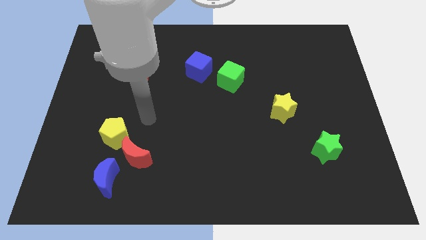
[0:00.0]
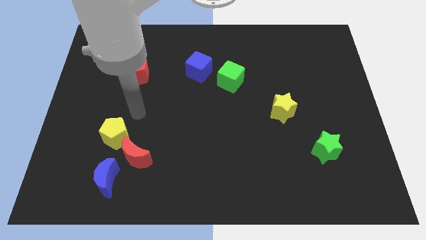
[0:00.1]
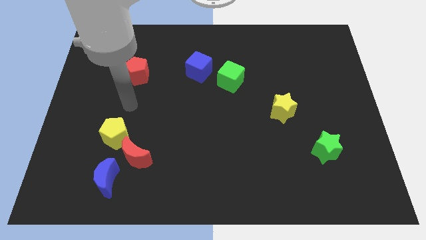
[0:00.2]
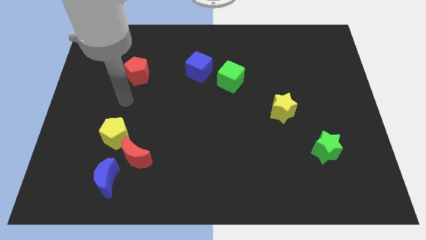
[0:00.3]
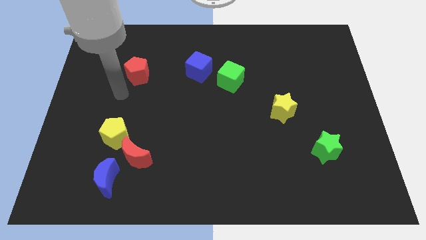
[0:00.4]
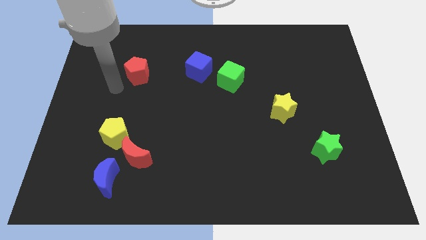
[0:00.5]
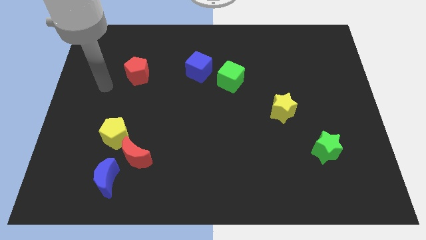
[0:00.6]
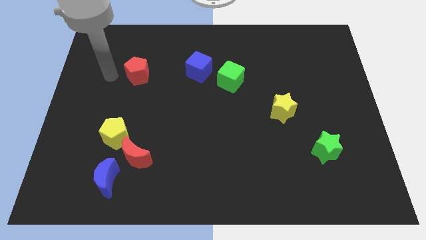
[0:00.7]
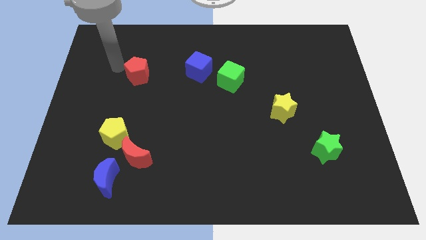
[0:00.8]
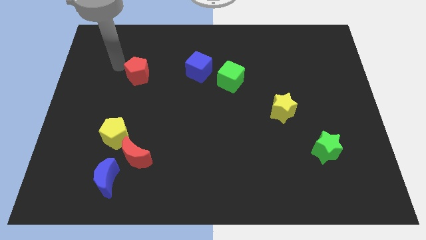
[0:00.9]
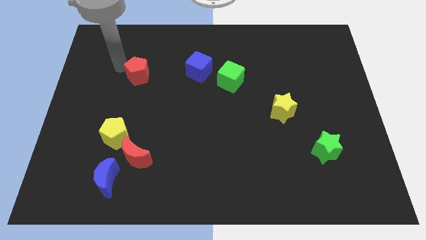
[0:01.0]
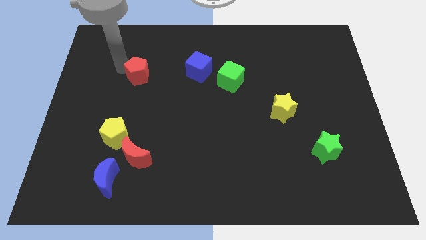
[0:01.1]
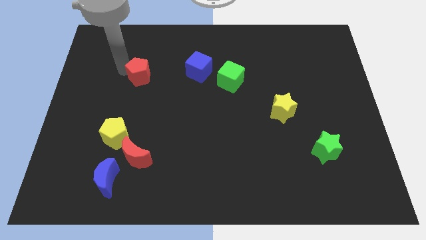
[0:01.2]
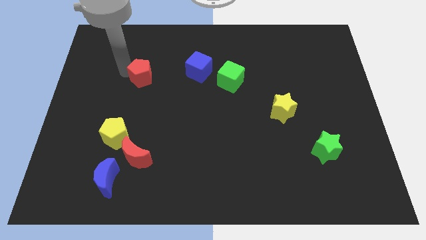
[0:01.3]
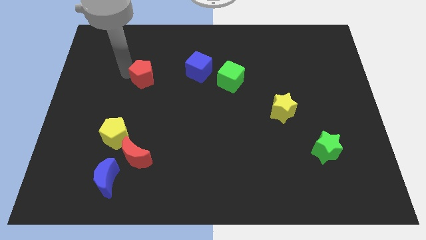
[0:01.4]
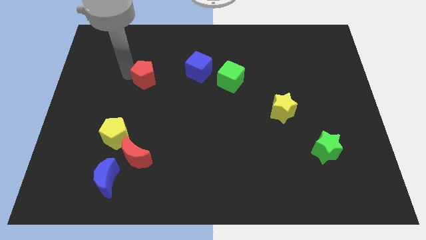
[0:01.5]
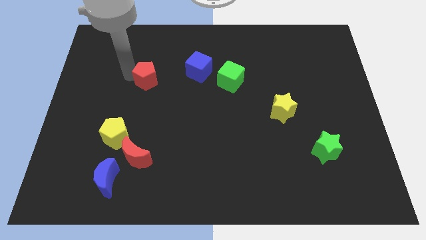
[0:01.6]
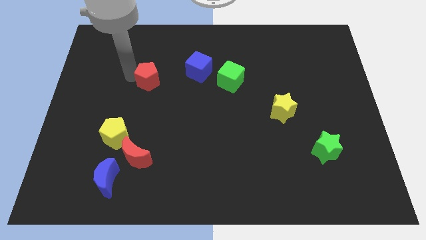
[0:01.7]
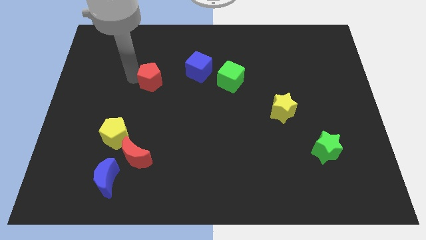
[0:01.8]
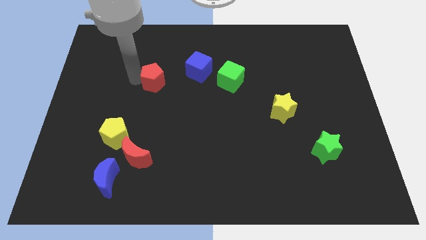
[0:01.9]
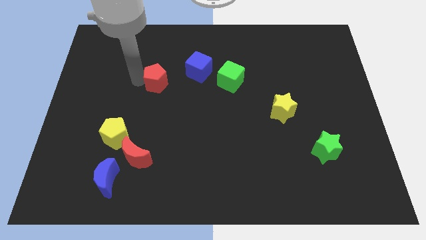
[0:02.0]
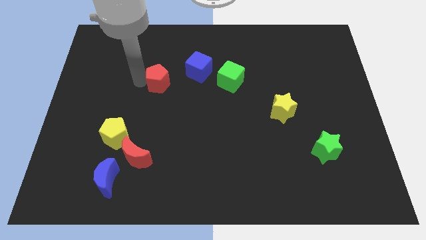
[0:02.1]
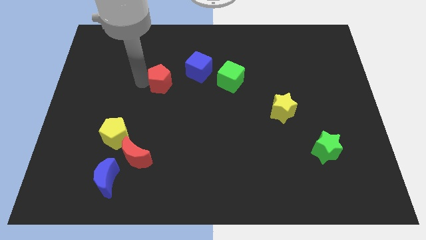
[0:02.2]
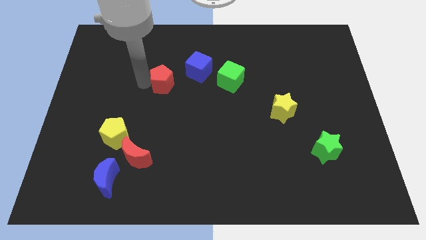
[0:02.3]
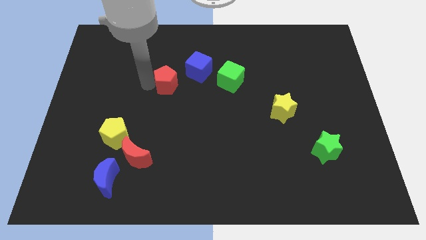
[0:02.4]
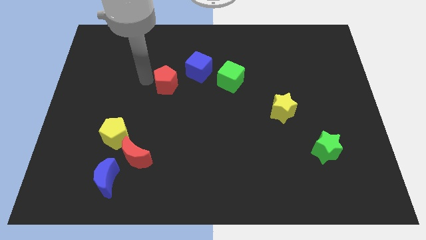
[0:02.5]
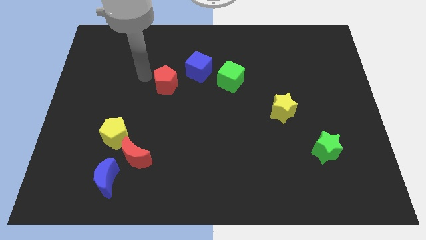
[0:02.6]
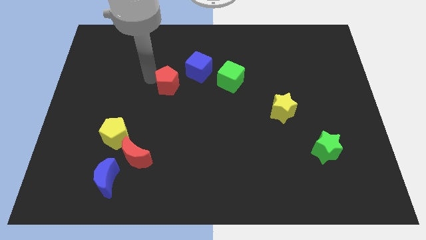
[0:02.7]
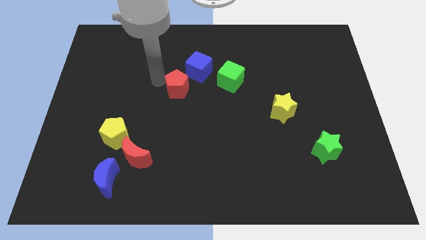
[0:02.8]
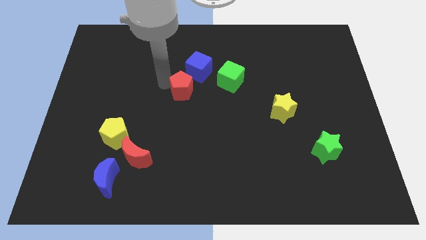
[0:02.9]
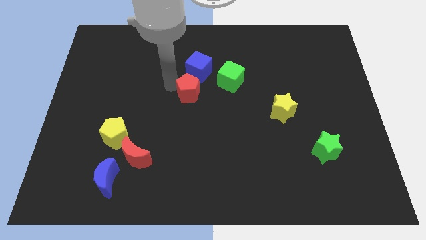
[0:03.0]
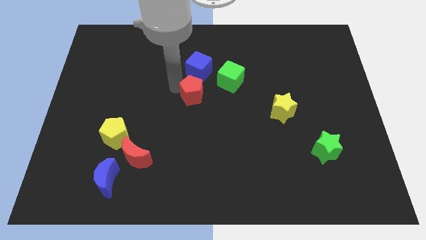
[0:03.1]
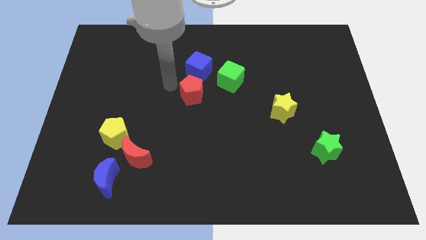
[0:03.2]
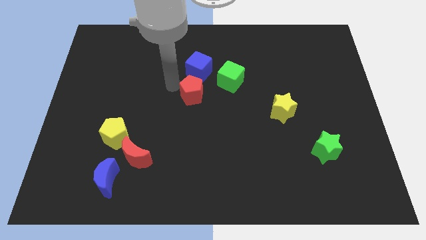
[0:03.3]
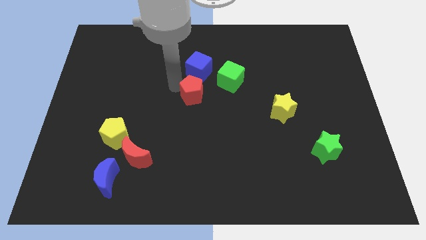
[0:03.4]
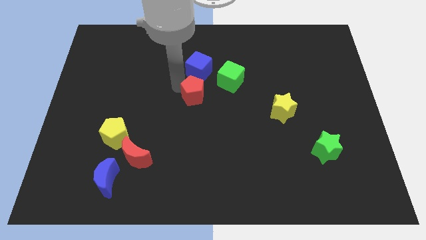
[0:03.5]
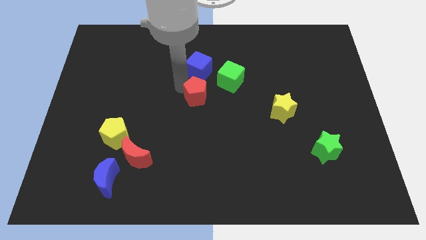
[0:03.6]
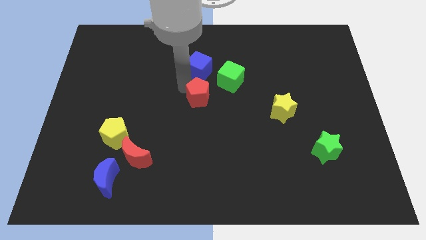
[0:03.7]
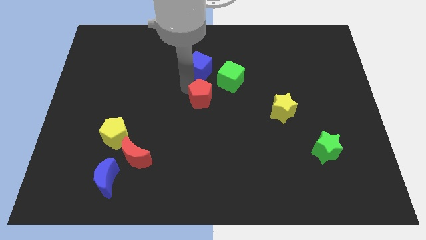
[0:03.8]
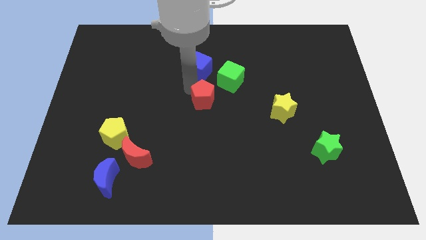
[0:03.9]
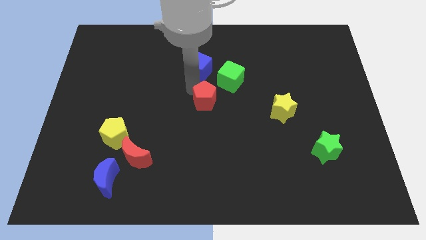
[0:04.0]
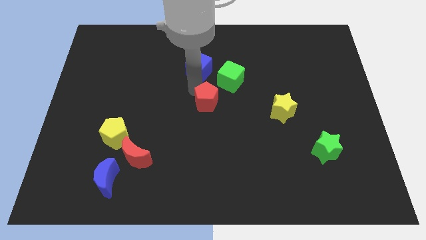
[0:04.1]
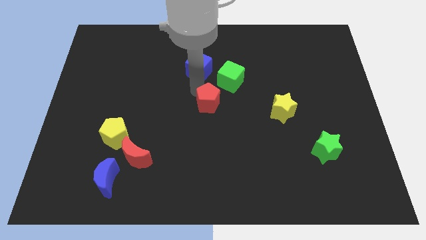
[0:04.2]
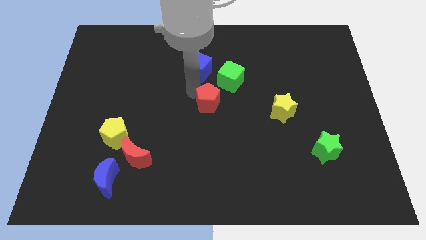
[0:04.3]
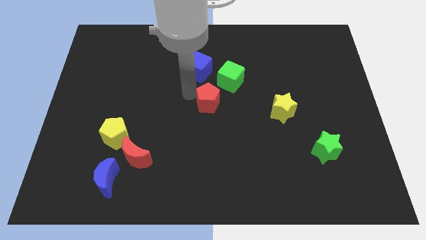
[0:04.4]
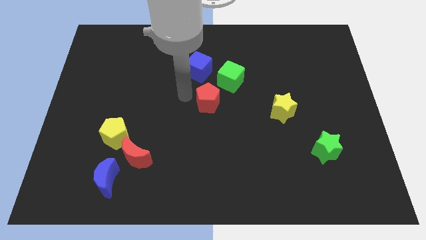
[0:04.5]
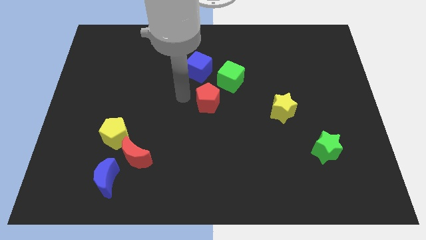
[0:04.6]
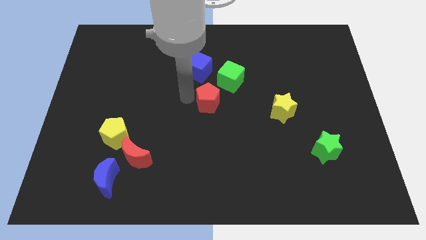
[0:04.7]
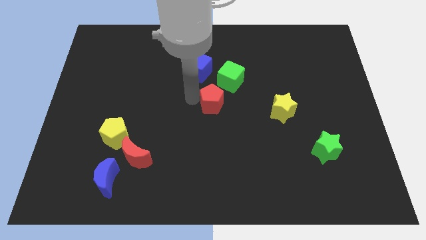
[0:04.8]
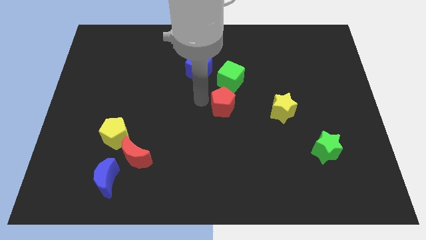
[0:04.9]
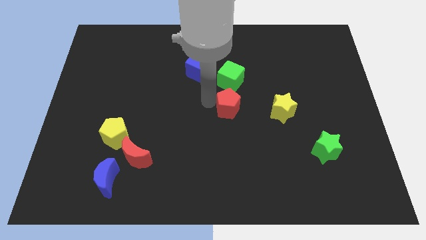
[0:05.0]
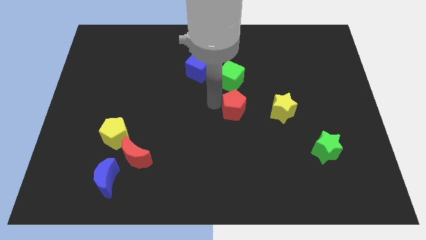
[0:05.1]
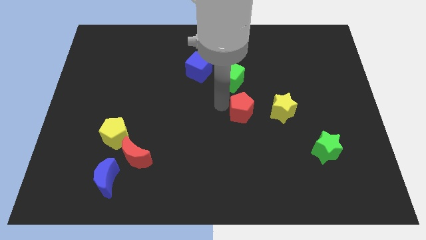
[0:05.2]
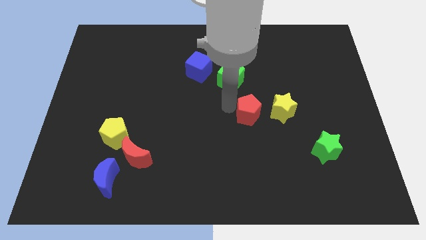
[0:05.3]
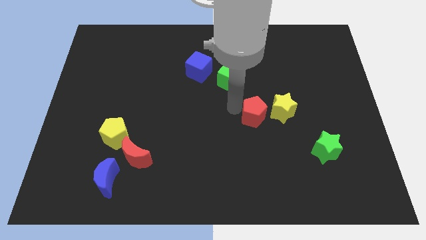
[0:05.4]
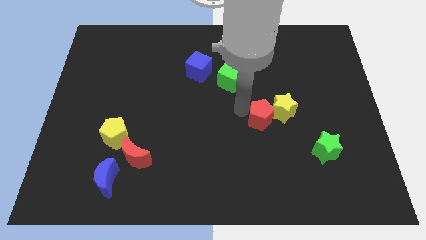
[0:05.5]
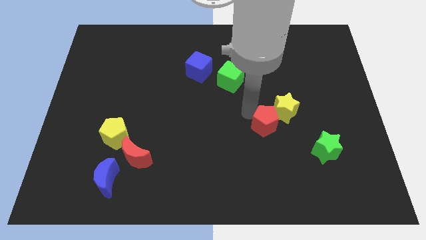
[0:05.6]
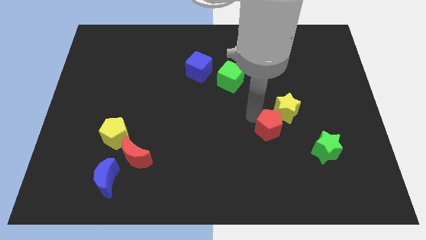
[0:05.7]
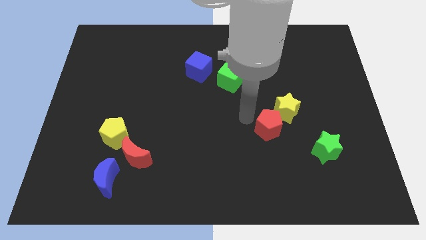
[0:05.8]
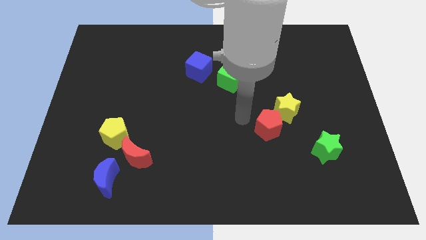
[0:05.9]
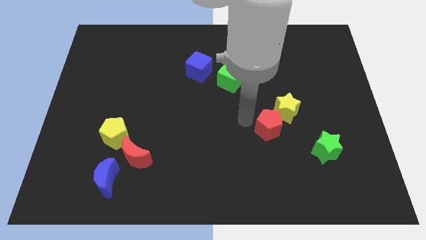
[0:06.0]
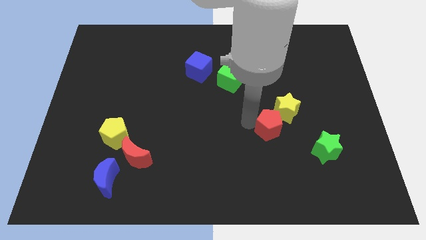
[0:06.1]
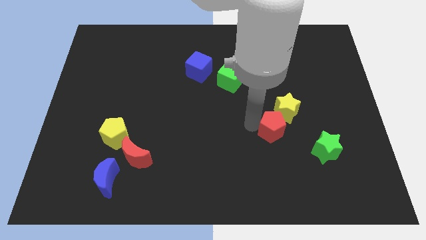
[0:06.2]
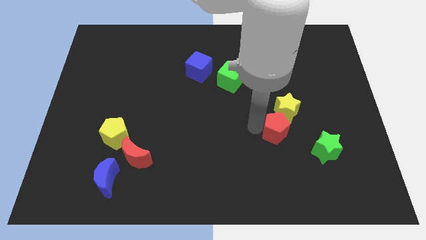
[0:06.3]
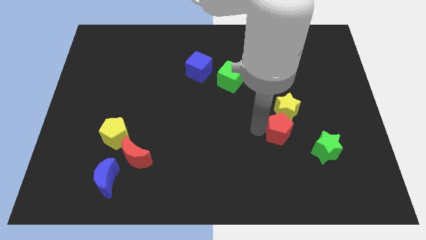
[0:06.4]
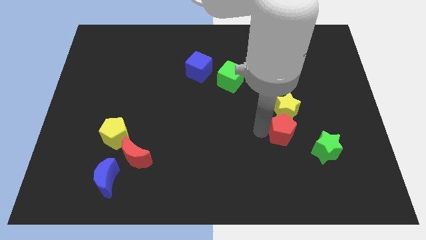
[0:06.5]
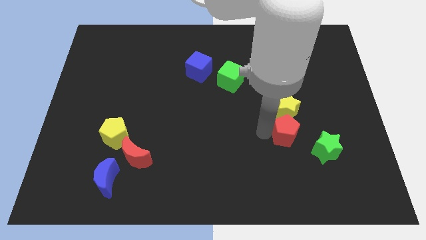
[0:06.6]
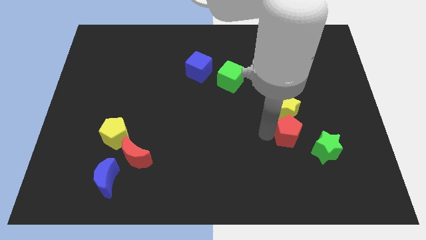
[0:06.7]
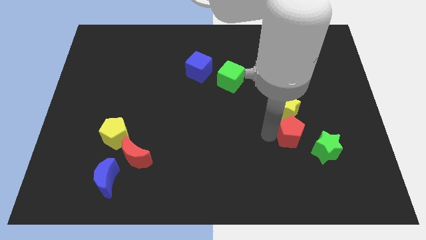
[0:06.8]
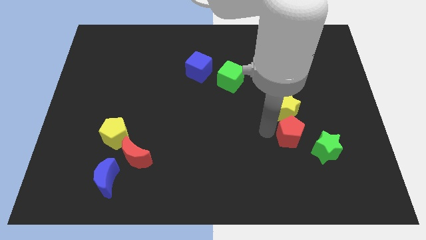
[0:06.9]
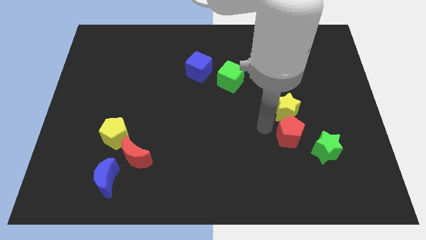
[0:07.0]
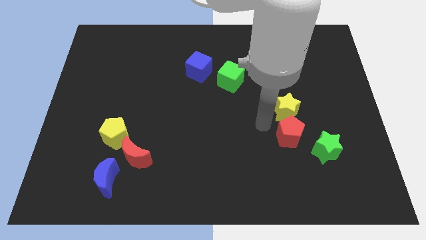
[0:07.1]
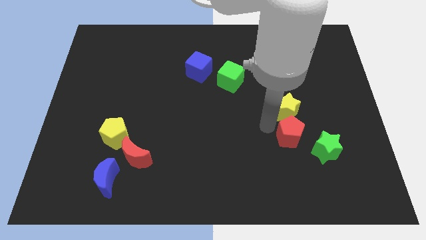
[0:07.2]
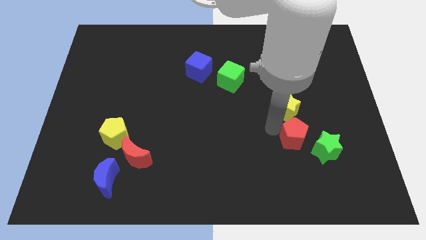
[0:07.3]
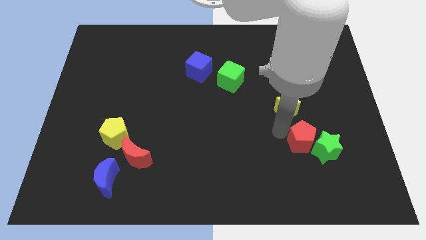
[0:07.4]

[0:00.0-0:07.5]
put the red pentagon towards the green star
